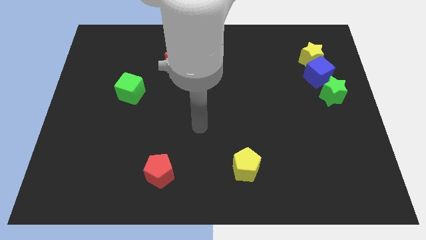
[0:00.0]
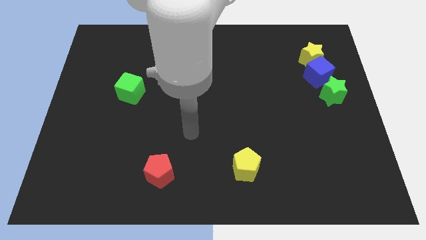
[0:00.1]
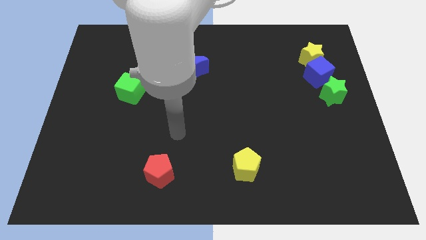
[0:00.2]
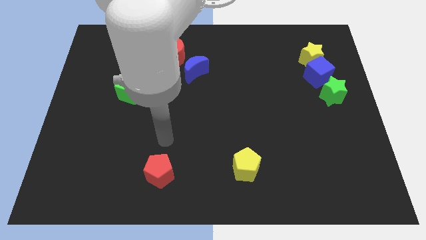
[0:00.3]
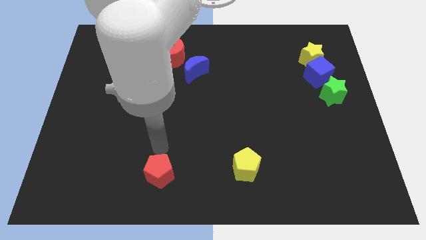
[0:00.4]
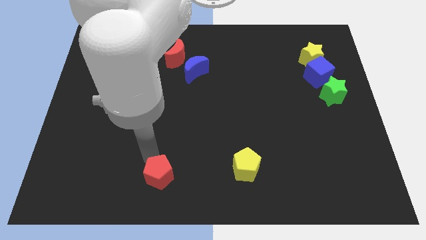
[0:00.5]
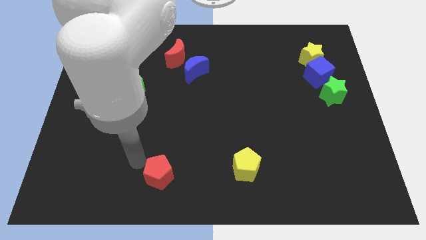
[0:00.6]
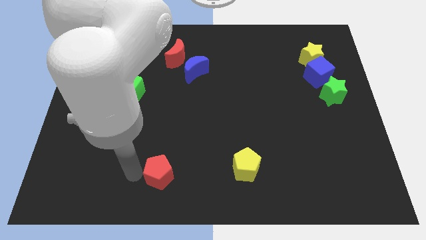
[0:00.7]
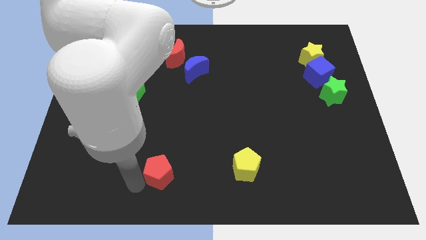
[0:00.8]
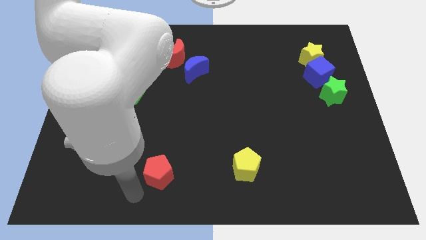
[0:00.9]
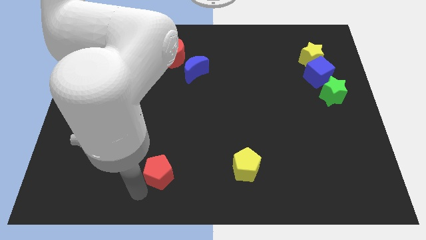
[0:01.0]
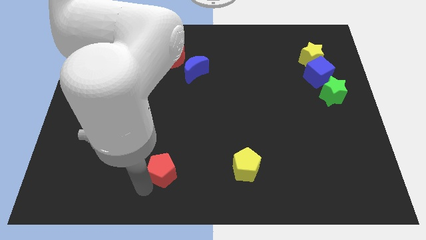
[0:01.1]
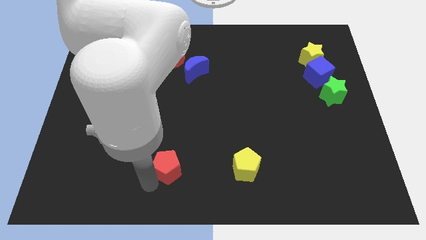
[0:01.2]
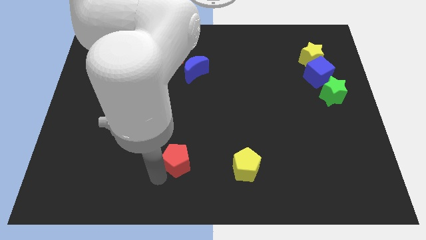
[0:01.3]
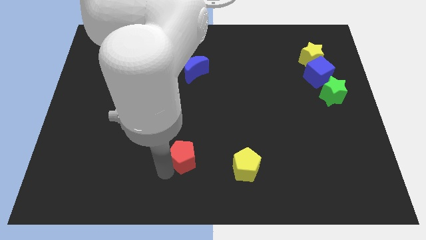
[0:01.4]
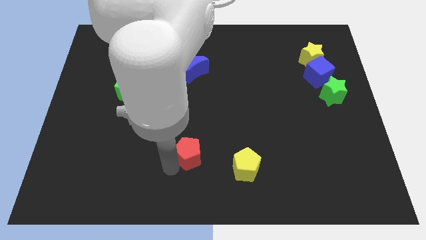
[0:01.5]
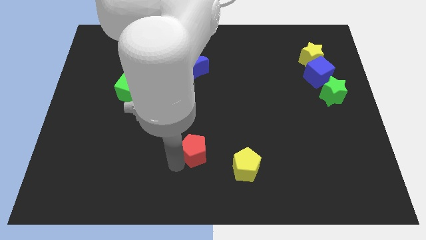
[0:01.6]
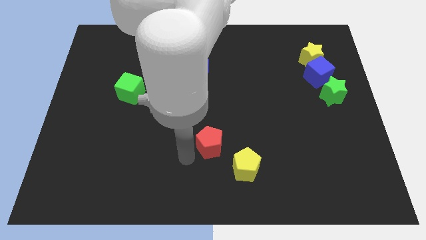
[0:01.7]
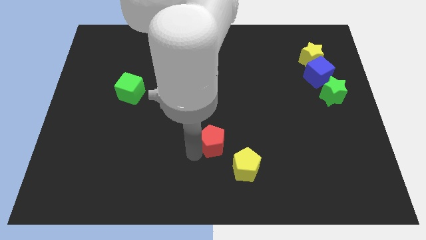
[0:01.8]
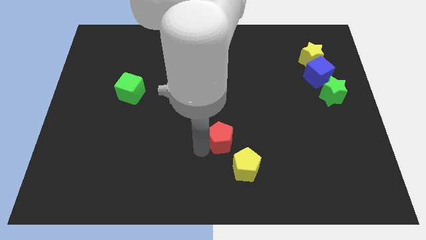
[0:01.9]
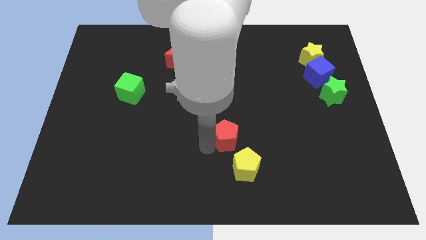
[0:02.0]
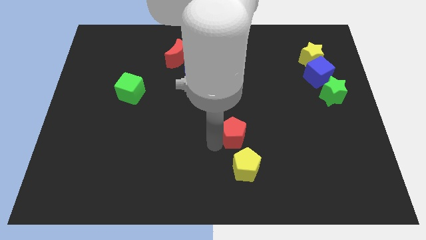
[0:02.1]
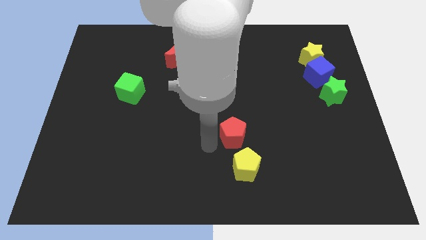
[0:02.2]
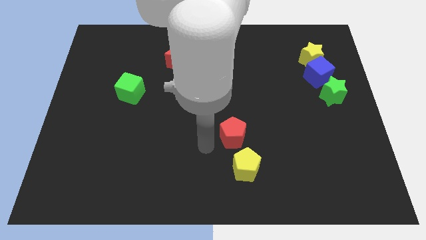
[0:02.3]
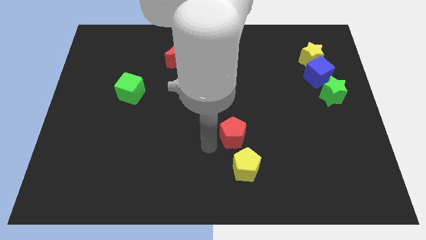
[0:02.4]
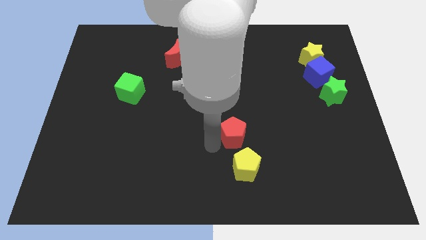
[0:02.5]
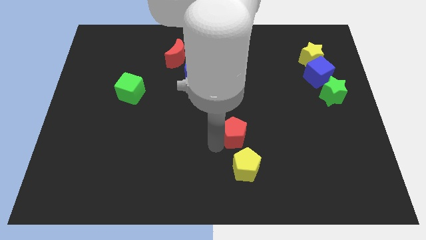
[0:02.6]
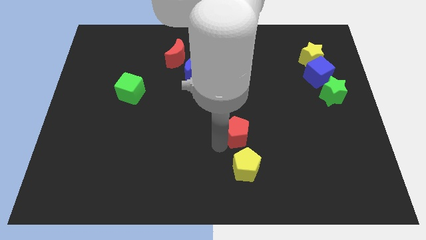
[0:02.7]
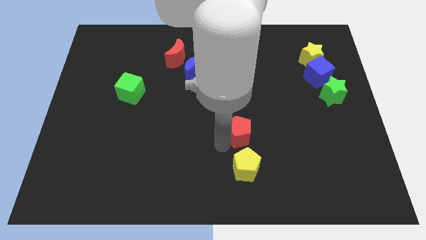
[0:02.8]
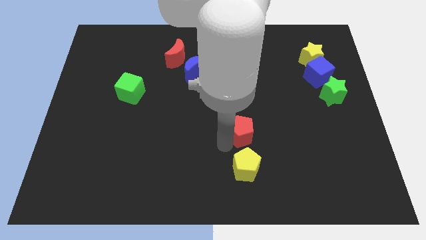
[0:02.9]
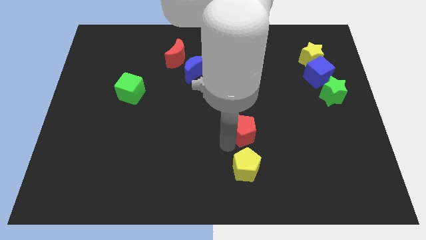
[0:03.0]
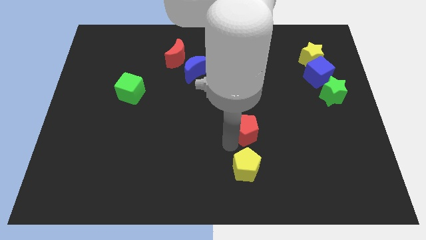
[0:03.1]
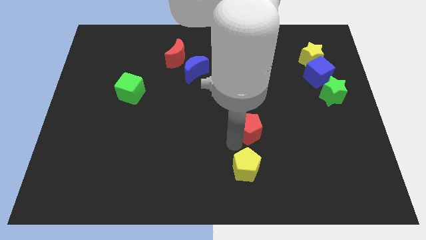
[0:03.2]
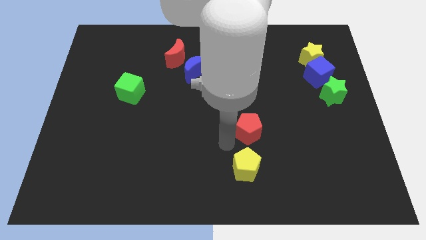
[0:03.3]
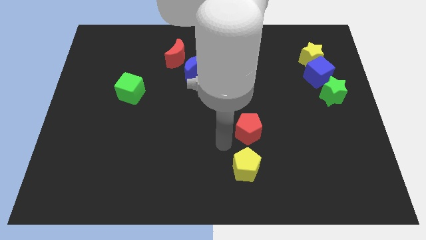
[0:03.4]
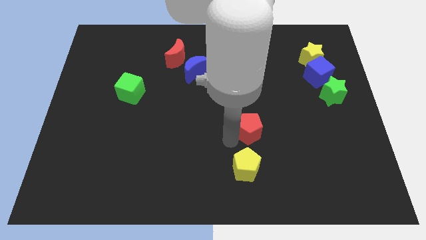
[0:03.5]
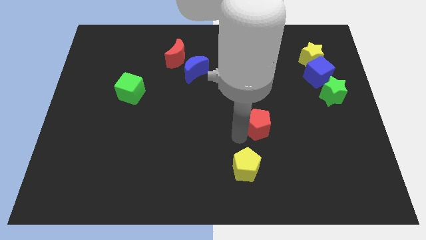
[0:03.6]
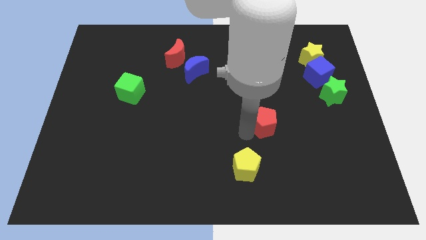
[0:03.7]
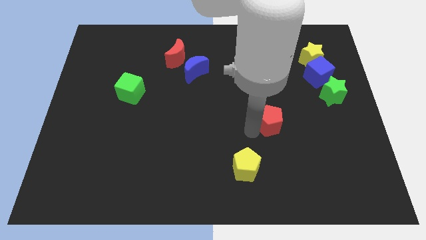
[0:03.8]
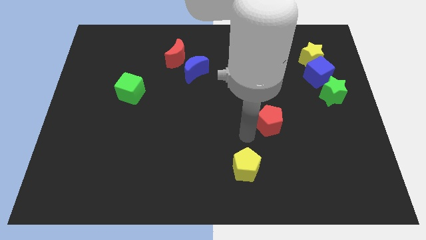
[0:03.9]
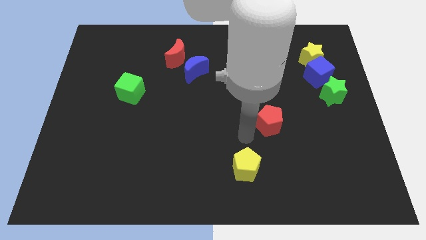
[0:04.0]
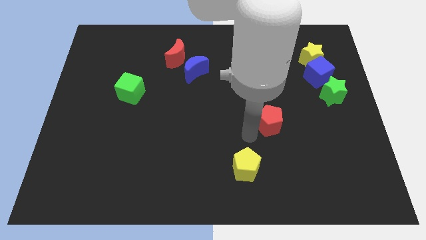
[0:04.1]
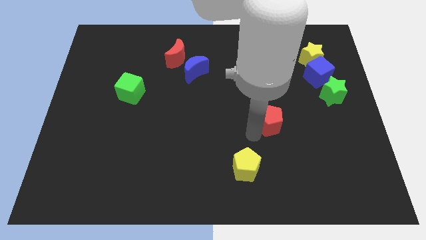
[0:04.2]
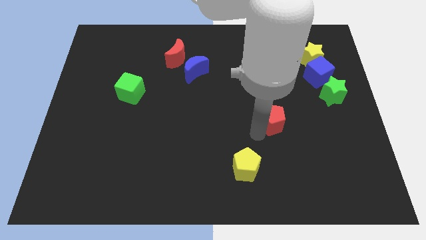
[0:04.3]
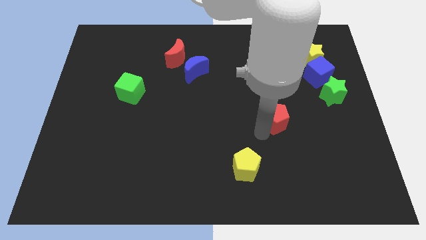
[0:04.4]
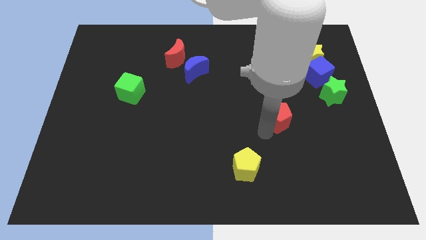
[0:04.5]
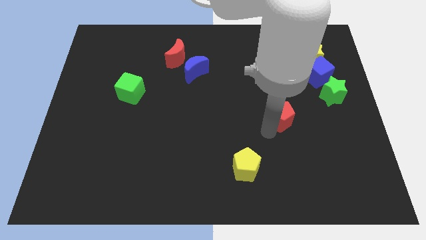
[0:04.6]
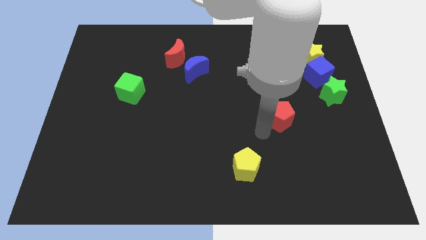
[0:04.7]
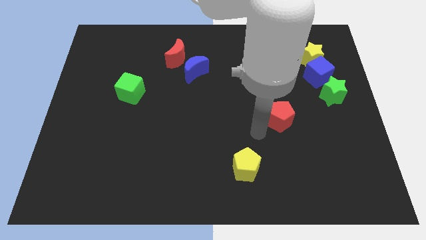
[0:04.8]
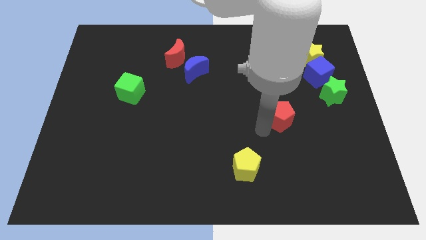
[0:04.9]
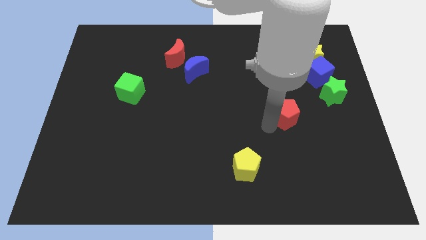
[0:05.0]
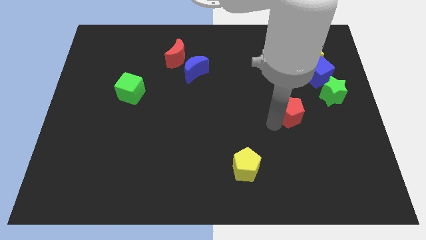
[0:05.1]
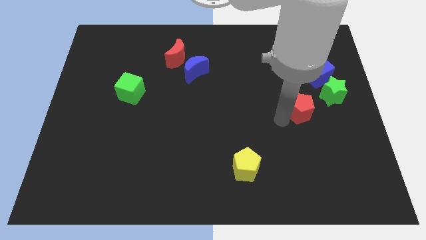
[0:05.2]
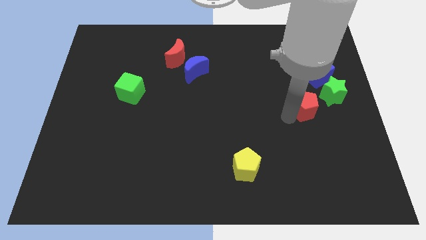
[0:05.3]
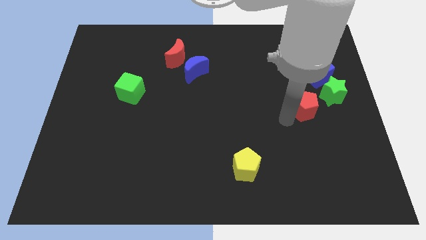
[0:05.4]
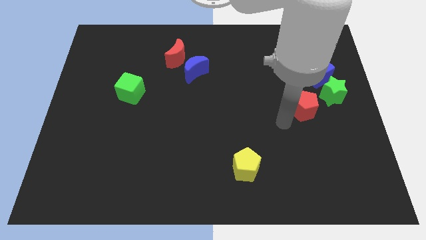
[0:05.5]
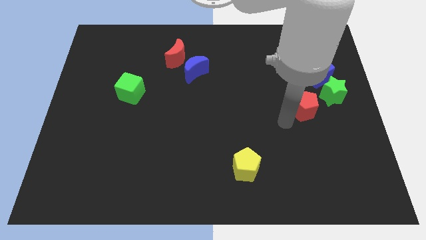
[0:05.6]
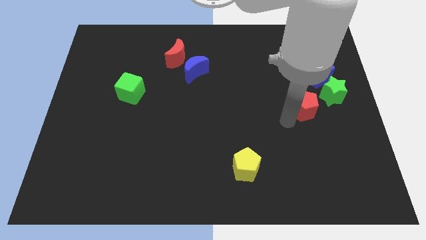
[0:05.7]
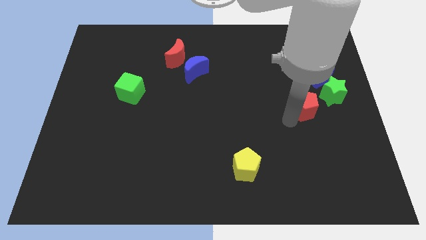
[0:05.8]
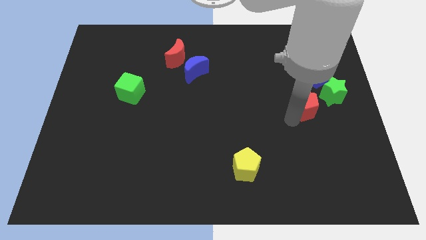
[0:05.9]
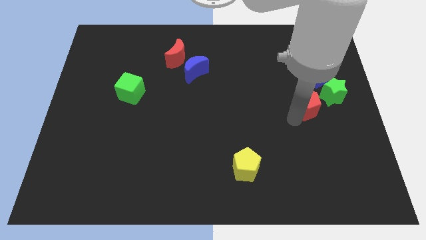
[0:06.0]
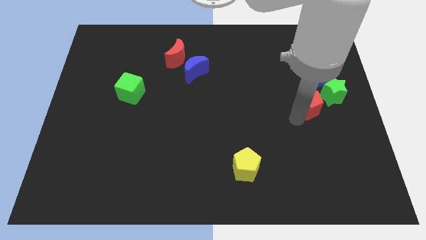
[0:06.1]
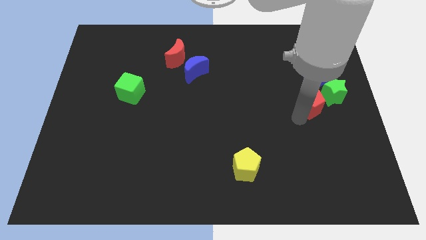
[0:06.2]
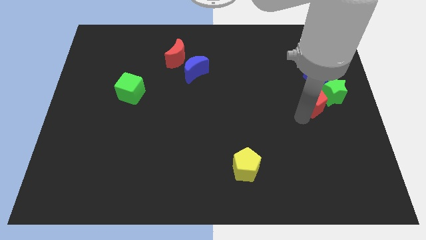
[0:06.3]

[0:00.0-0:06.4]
push the red pentagon close to the green star

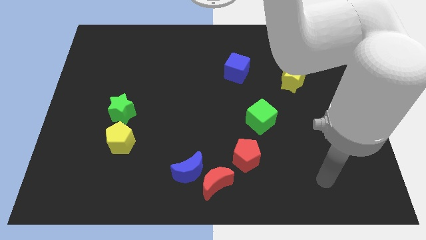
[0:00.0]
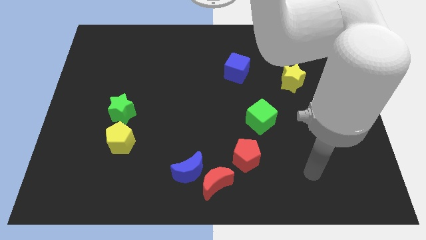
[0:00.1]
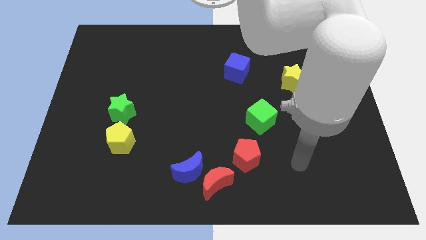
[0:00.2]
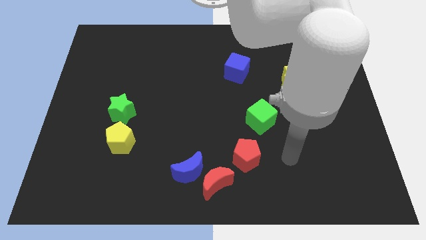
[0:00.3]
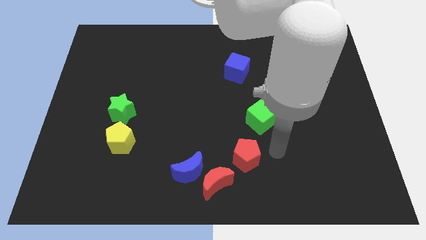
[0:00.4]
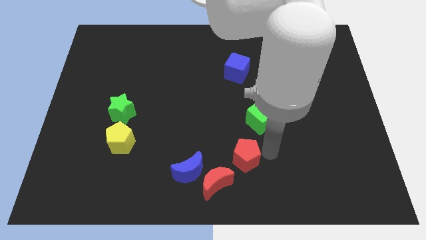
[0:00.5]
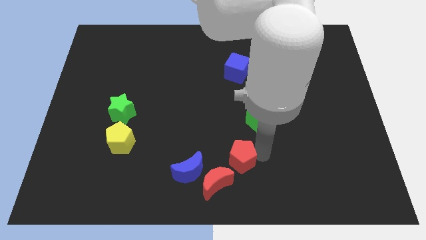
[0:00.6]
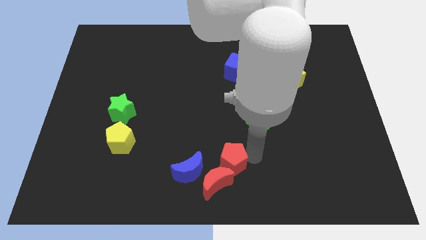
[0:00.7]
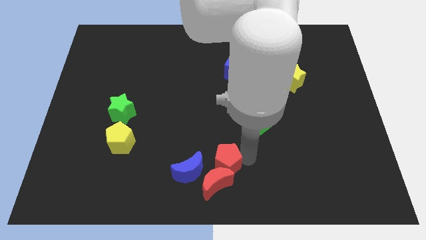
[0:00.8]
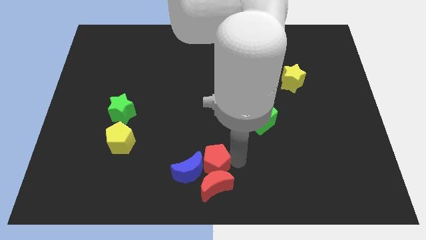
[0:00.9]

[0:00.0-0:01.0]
put the red pentagon towards the blue moon
